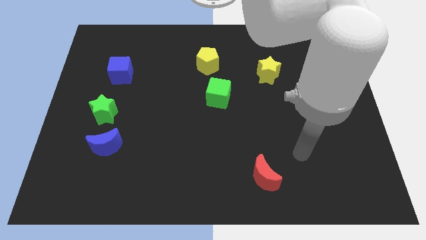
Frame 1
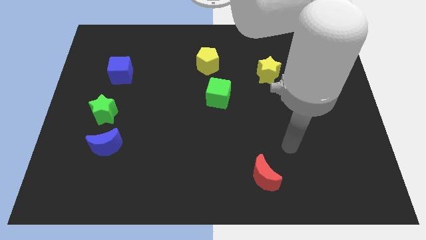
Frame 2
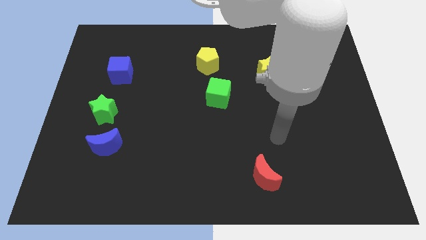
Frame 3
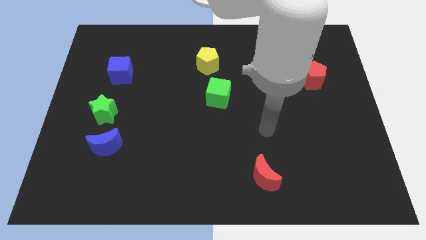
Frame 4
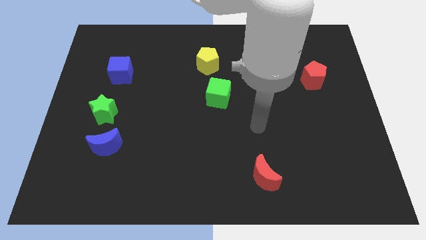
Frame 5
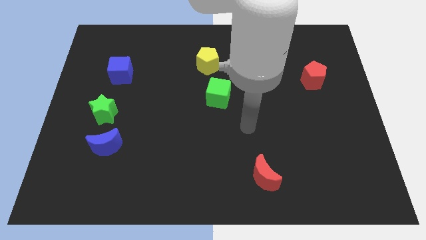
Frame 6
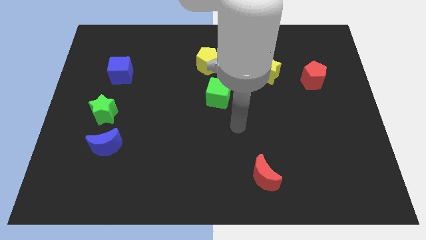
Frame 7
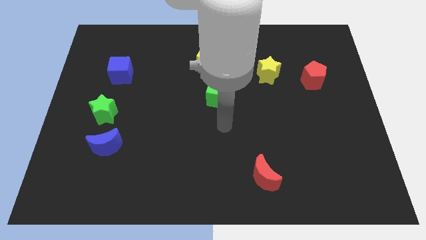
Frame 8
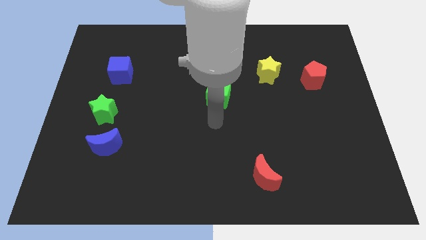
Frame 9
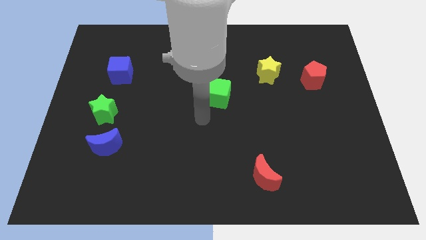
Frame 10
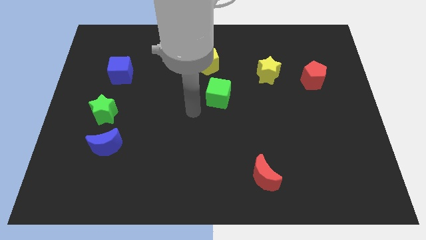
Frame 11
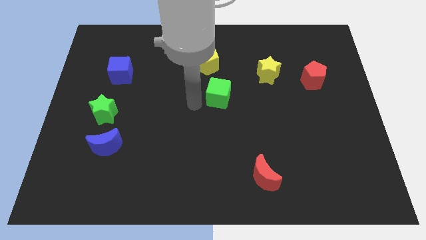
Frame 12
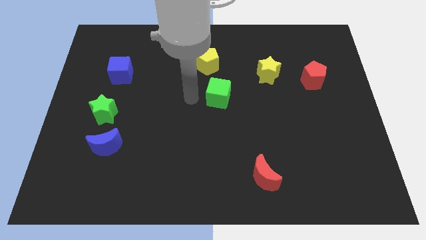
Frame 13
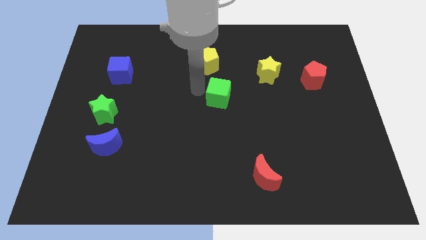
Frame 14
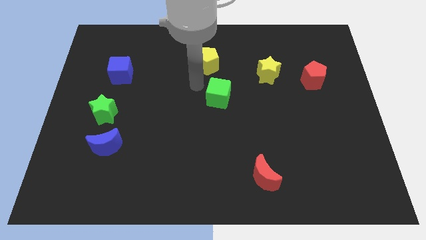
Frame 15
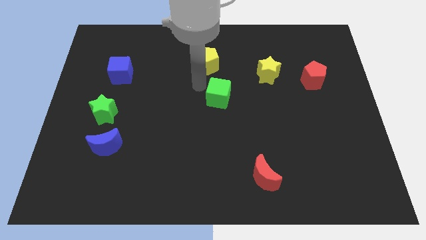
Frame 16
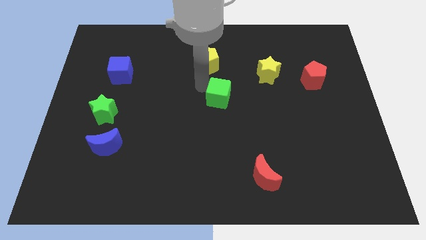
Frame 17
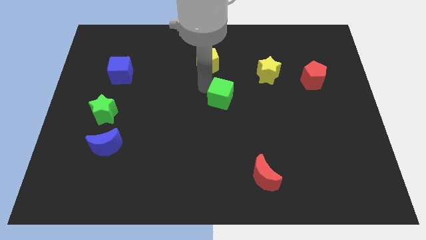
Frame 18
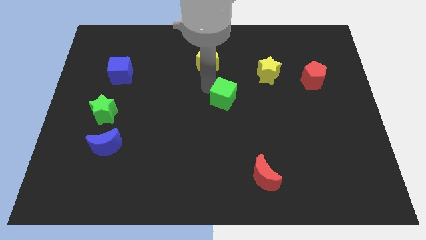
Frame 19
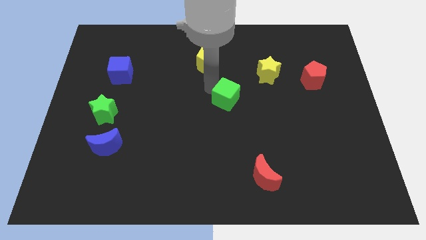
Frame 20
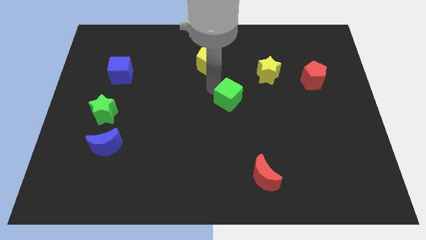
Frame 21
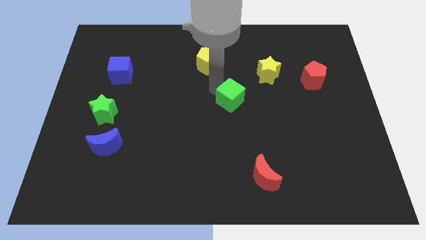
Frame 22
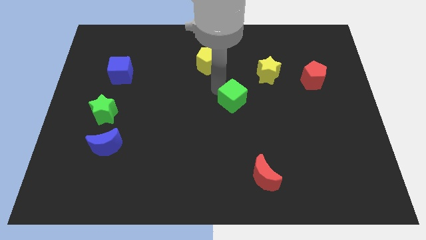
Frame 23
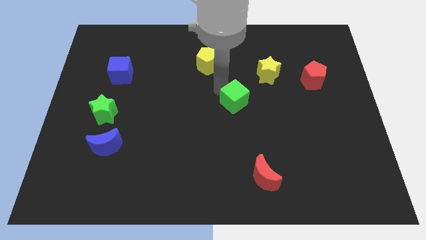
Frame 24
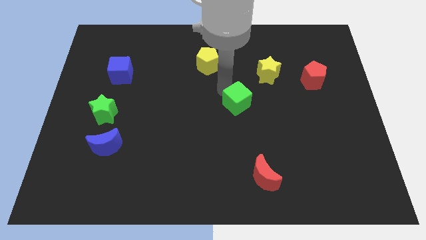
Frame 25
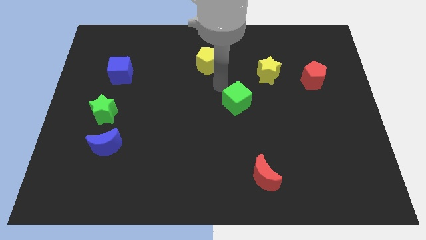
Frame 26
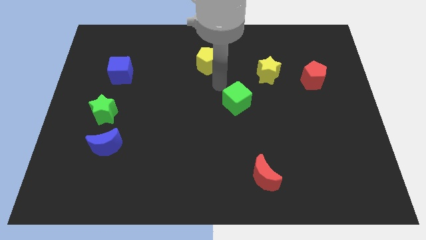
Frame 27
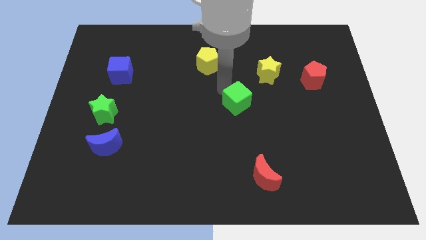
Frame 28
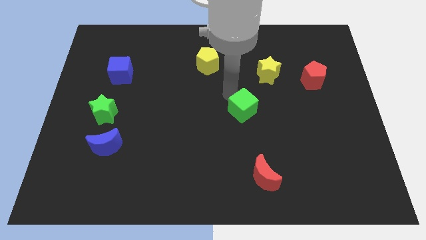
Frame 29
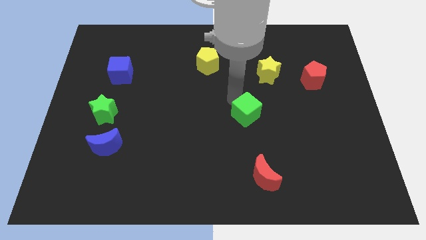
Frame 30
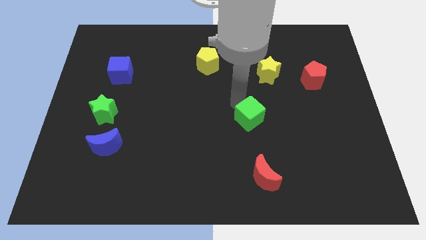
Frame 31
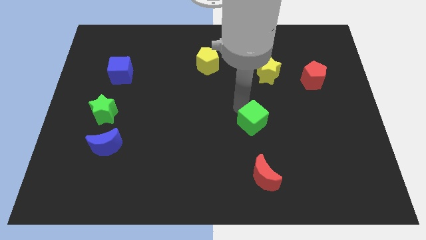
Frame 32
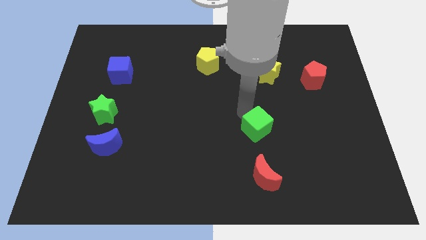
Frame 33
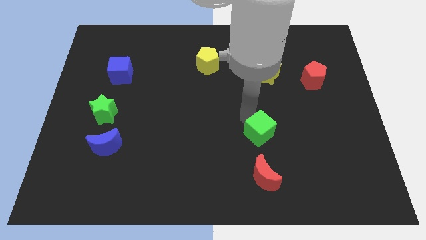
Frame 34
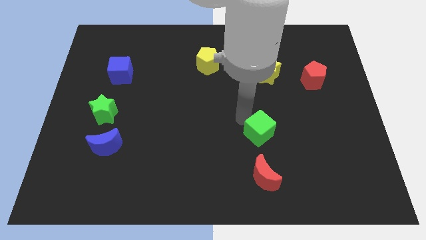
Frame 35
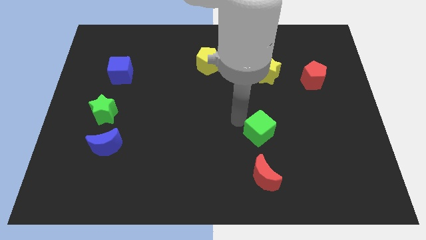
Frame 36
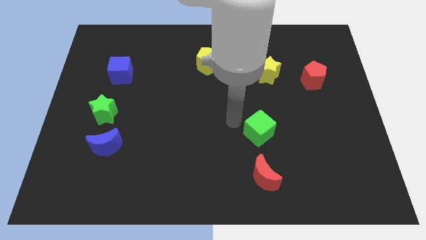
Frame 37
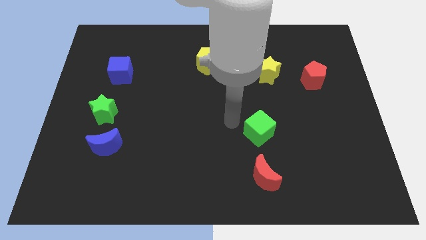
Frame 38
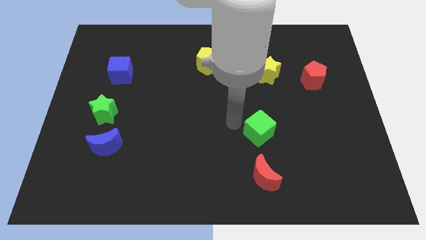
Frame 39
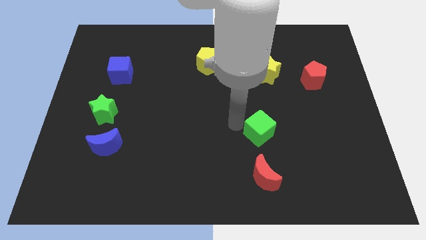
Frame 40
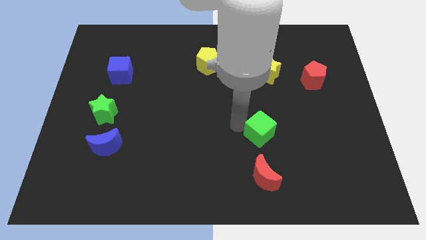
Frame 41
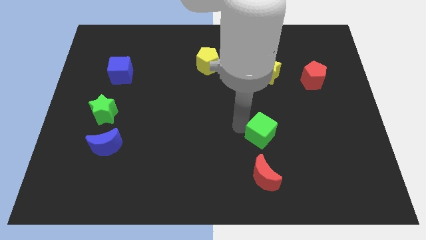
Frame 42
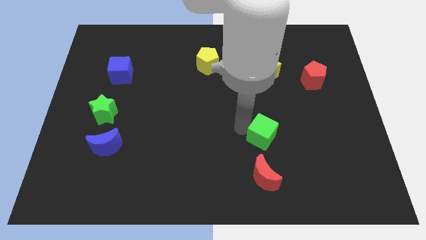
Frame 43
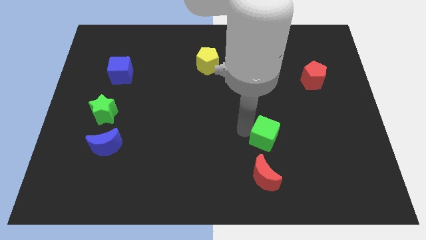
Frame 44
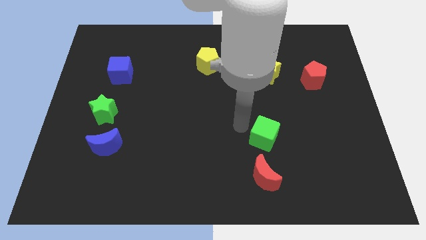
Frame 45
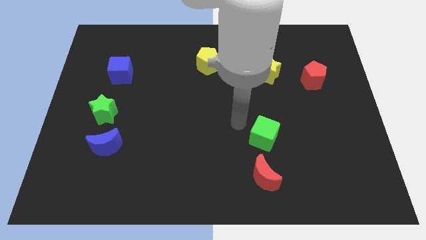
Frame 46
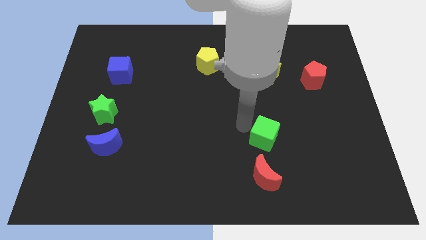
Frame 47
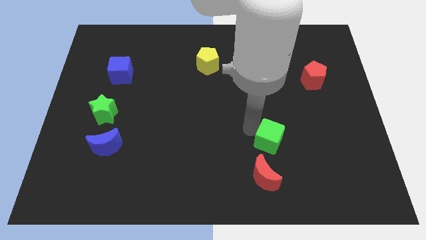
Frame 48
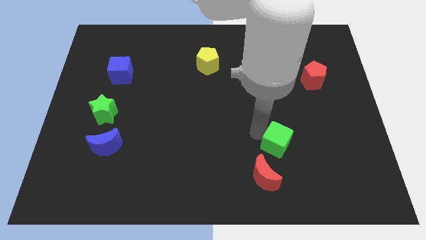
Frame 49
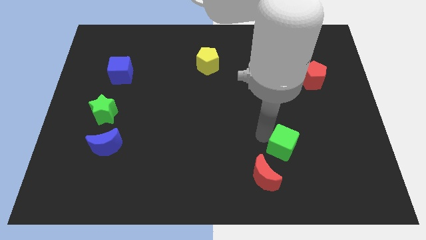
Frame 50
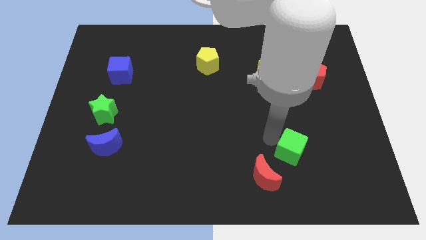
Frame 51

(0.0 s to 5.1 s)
slide the green cube down and to the right diagonally

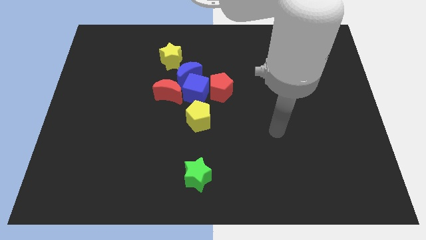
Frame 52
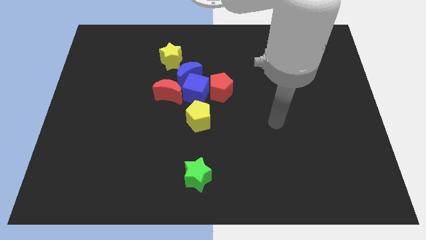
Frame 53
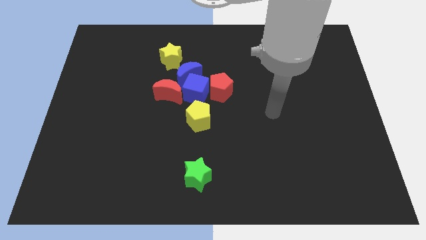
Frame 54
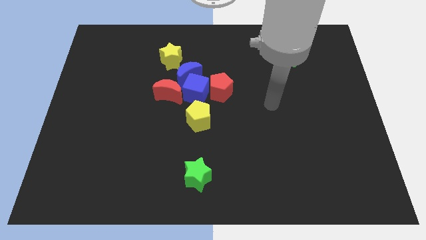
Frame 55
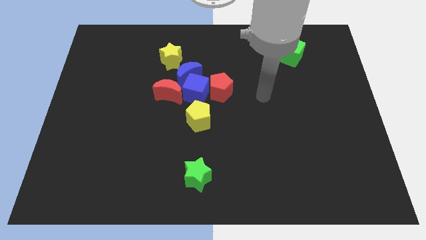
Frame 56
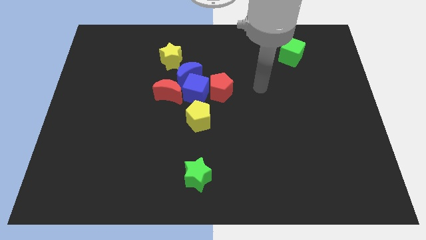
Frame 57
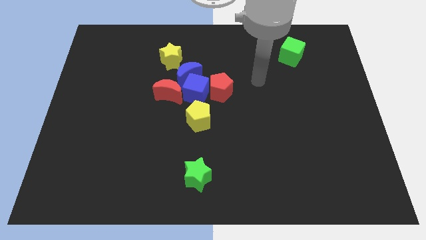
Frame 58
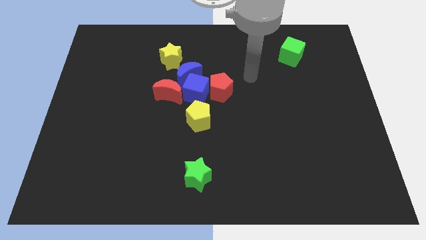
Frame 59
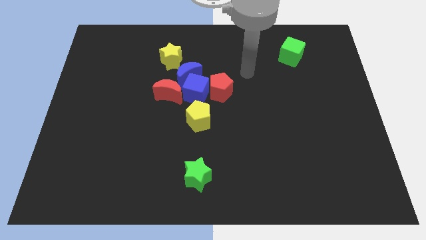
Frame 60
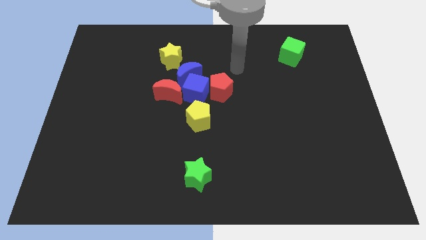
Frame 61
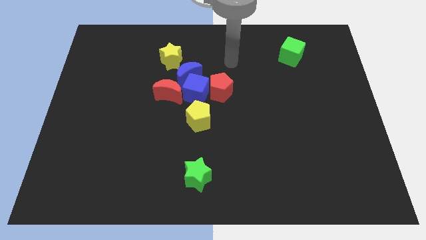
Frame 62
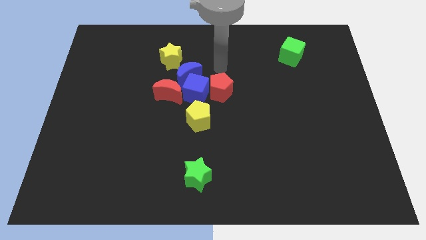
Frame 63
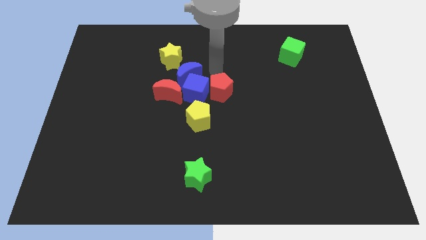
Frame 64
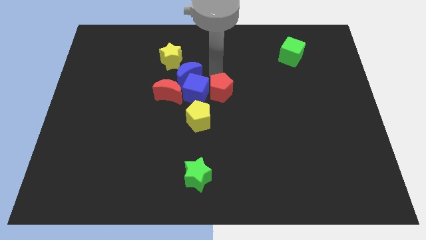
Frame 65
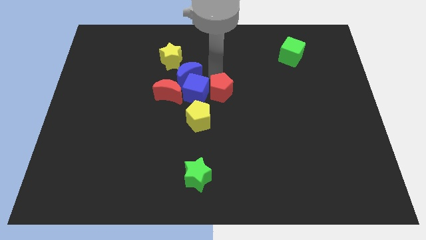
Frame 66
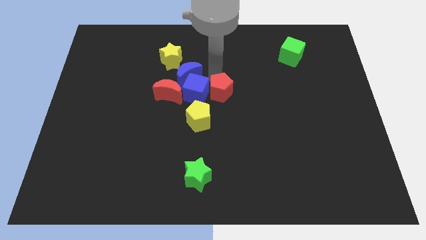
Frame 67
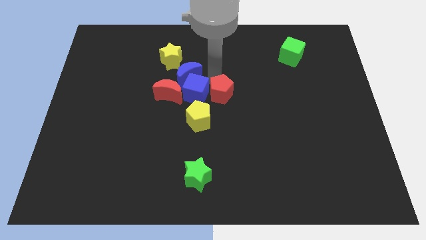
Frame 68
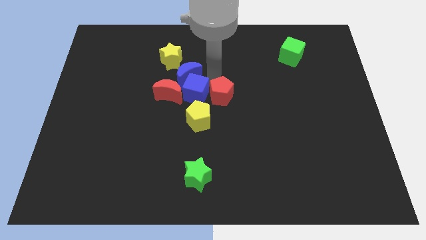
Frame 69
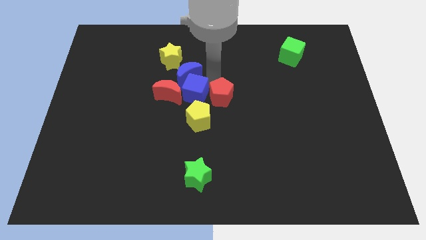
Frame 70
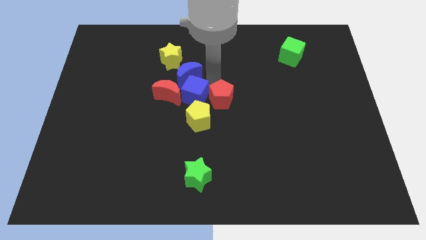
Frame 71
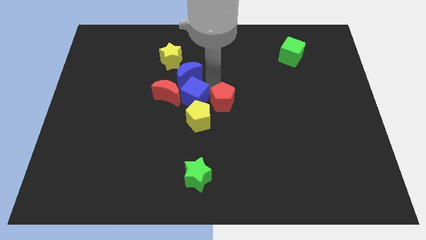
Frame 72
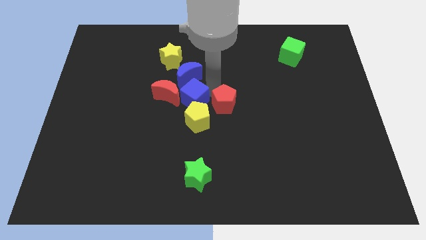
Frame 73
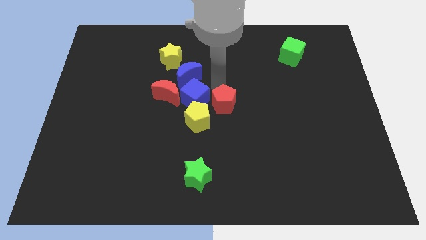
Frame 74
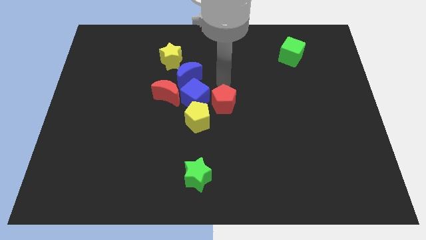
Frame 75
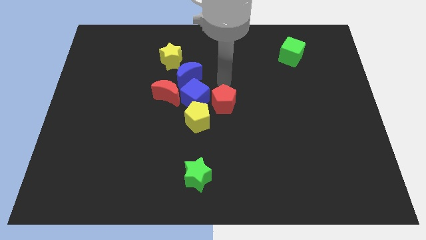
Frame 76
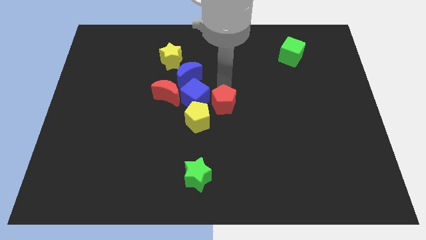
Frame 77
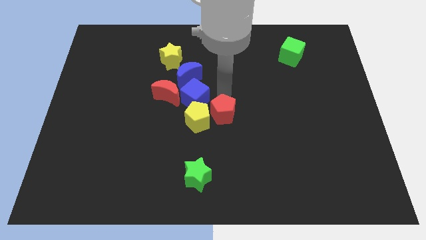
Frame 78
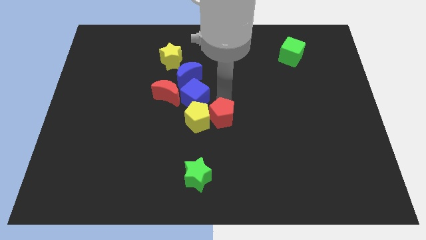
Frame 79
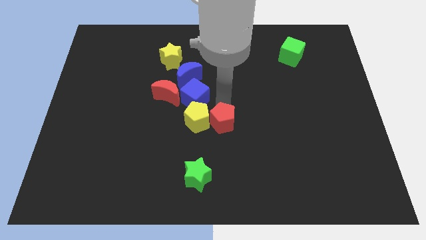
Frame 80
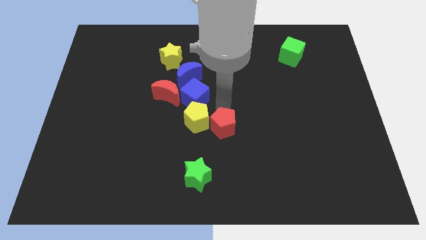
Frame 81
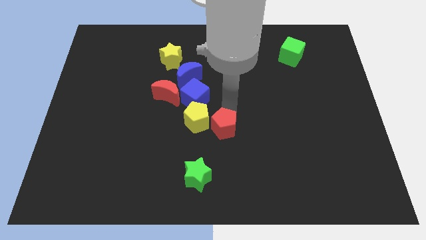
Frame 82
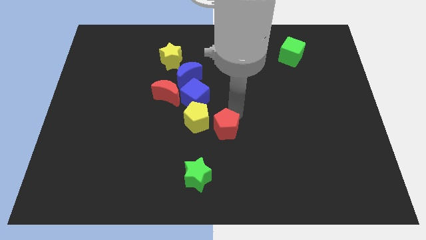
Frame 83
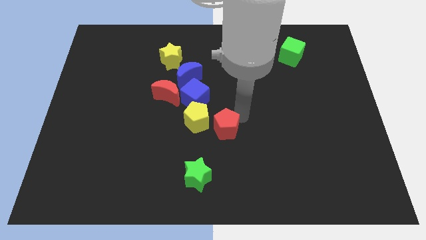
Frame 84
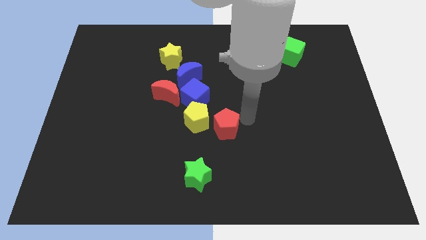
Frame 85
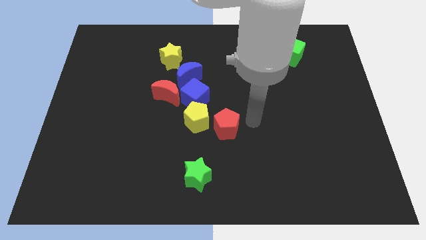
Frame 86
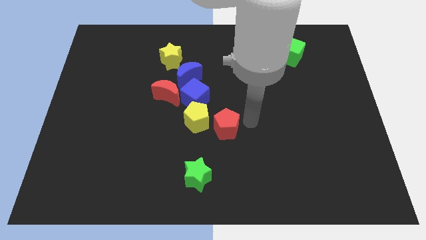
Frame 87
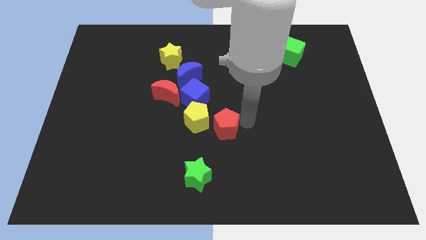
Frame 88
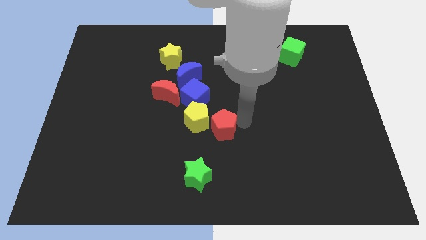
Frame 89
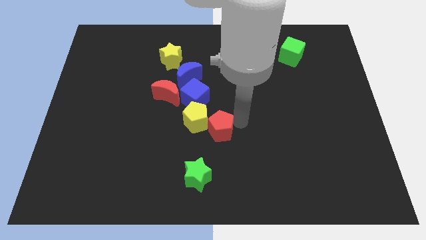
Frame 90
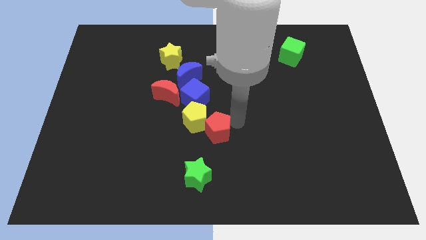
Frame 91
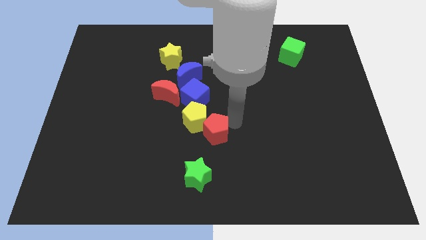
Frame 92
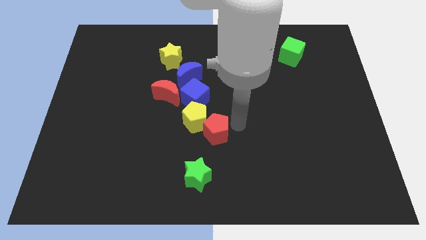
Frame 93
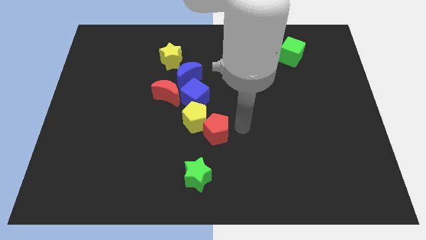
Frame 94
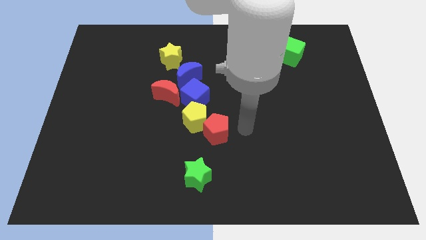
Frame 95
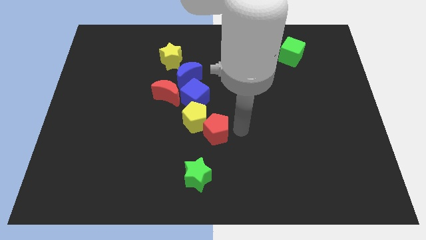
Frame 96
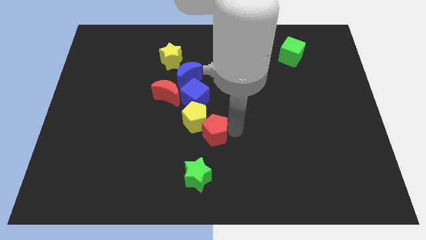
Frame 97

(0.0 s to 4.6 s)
slide the red pentagon down and to the left diagonally a little
